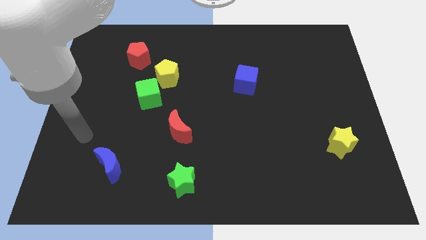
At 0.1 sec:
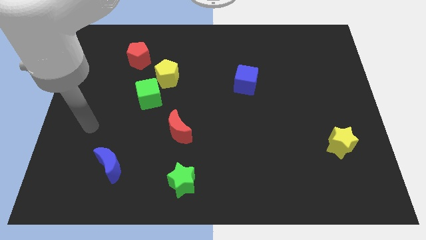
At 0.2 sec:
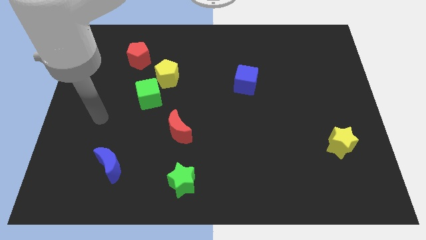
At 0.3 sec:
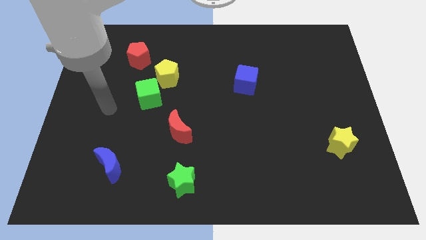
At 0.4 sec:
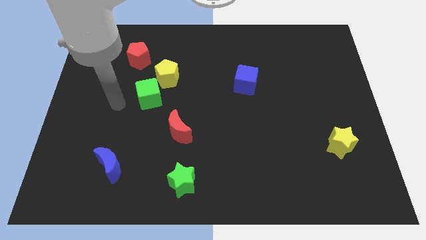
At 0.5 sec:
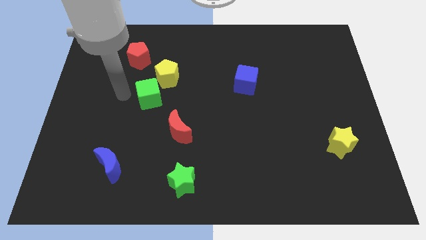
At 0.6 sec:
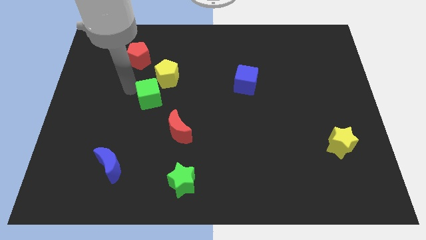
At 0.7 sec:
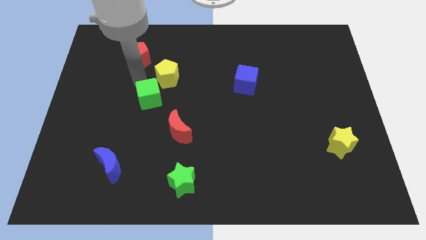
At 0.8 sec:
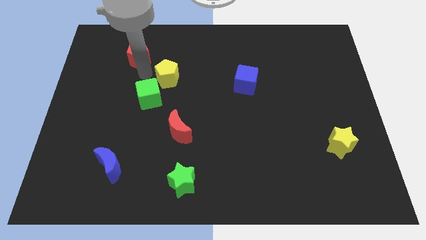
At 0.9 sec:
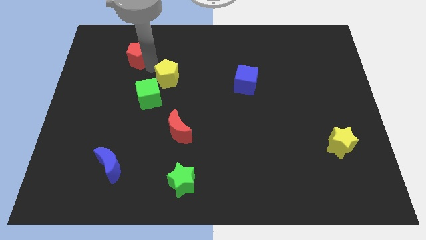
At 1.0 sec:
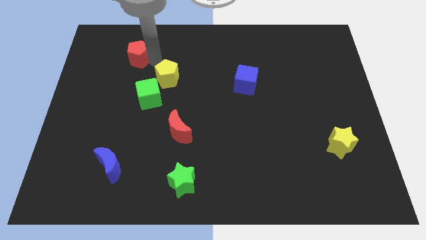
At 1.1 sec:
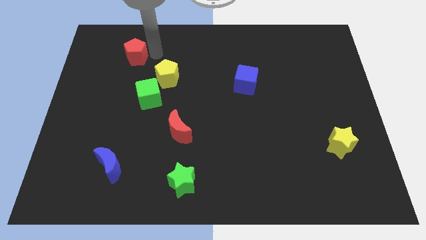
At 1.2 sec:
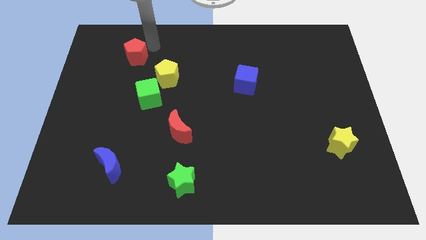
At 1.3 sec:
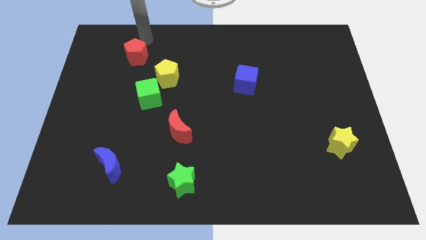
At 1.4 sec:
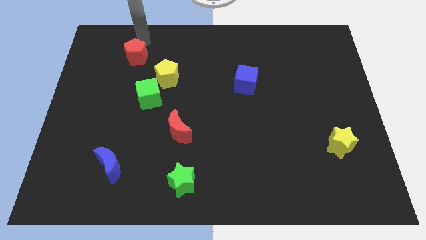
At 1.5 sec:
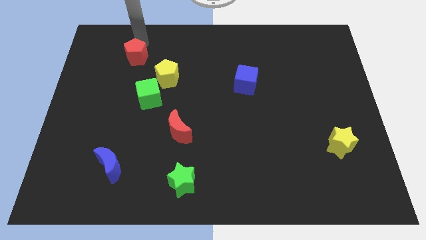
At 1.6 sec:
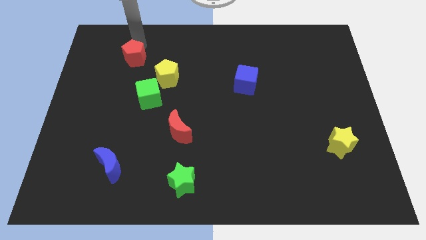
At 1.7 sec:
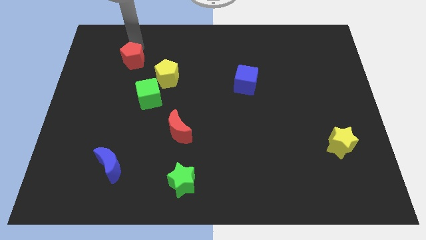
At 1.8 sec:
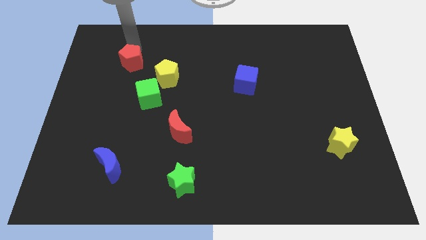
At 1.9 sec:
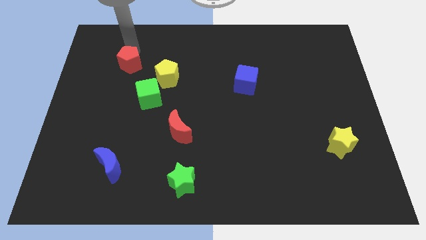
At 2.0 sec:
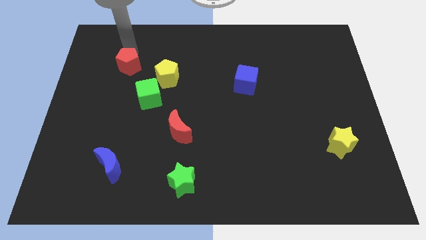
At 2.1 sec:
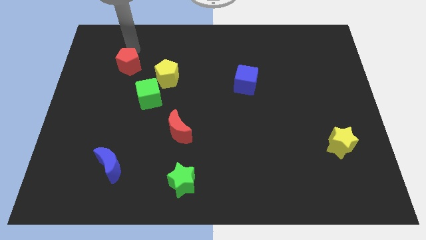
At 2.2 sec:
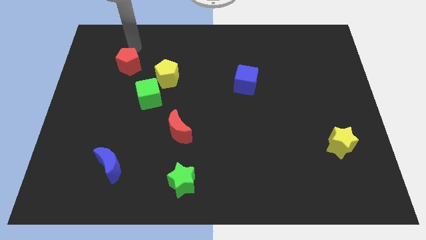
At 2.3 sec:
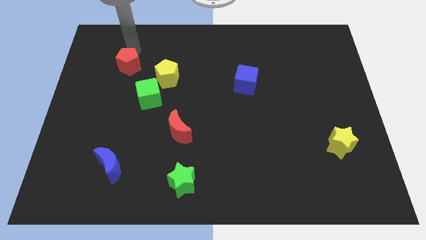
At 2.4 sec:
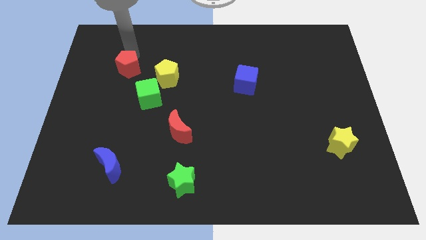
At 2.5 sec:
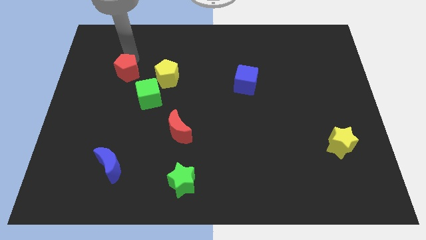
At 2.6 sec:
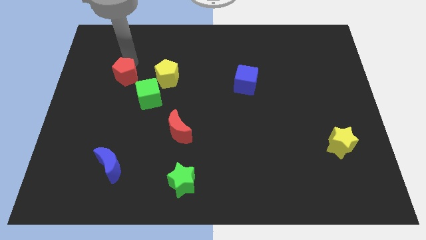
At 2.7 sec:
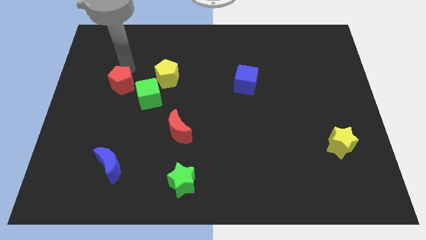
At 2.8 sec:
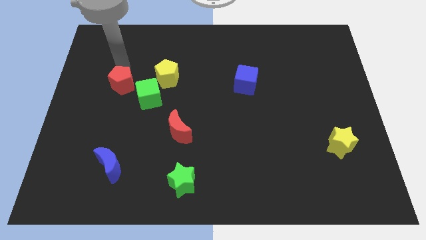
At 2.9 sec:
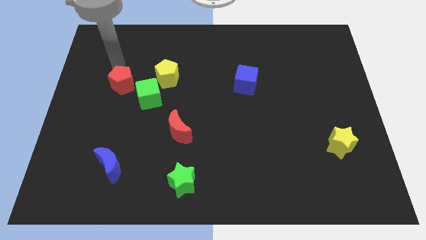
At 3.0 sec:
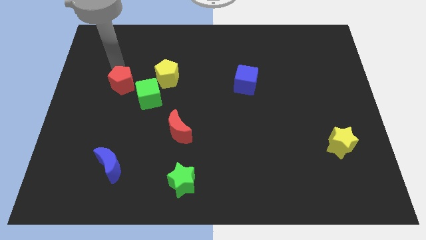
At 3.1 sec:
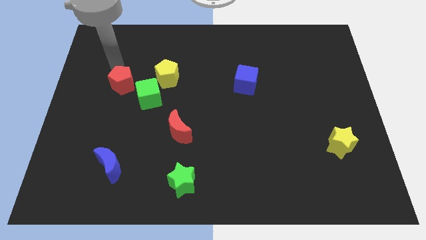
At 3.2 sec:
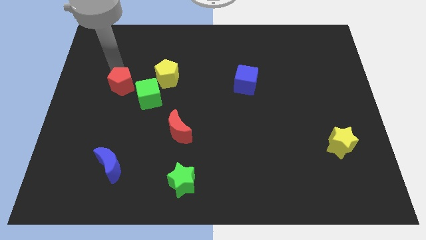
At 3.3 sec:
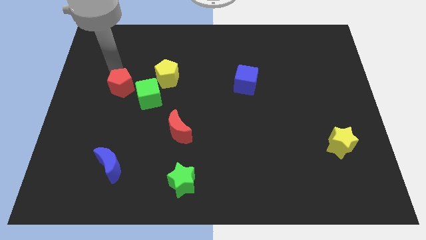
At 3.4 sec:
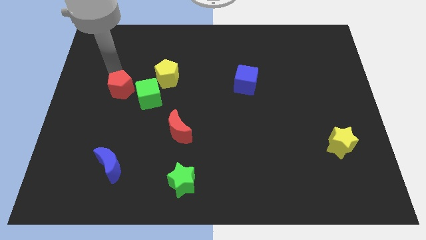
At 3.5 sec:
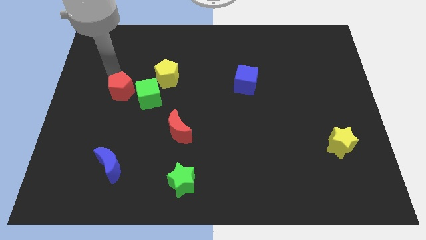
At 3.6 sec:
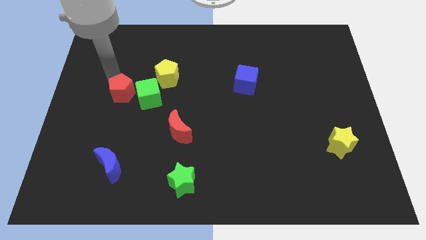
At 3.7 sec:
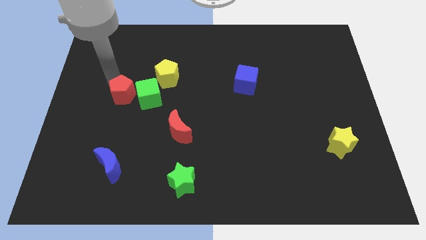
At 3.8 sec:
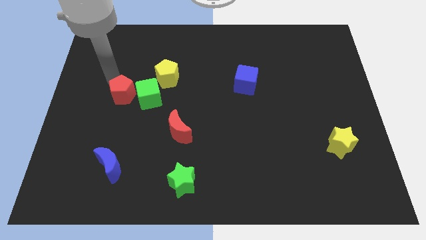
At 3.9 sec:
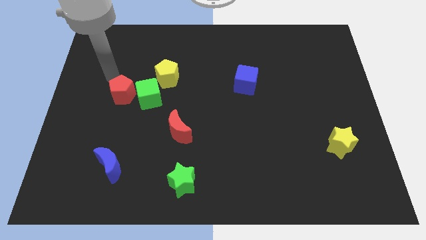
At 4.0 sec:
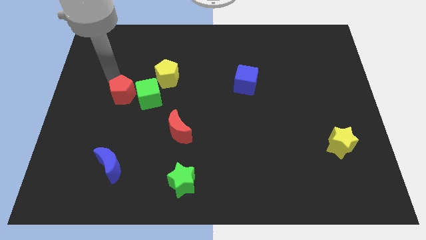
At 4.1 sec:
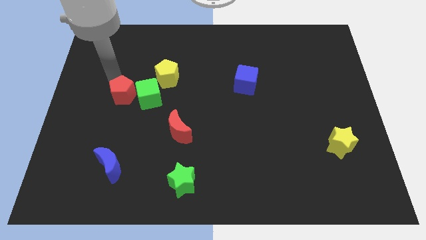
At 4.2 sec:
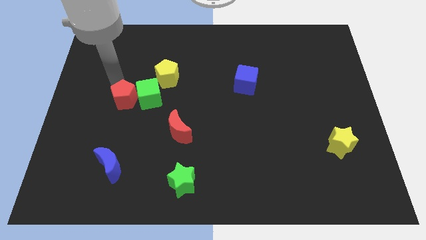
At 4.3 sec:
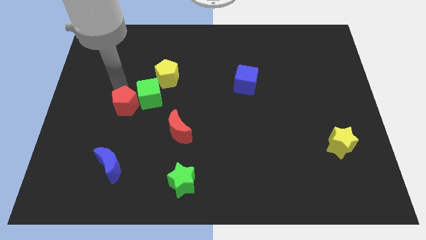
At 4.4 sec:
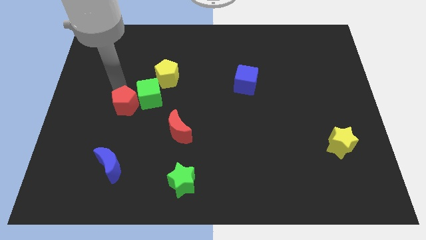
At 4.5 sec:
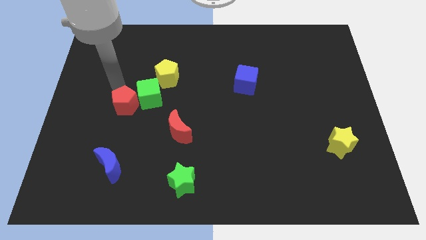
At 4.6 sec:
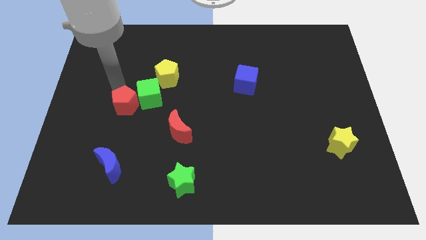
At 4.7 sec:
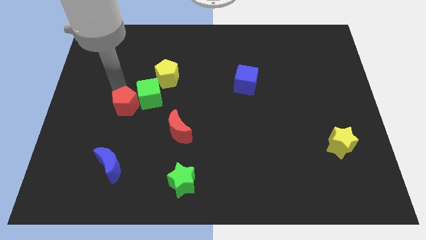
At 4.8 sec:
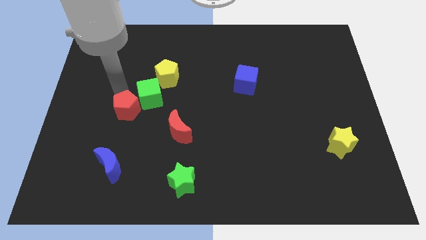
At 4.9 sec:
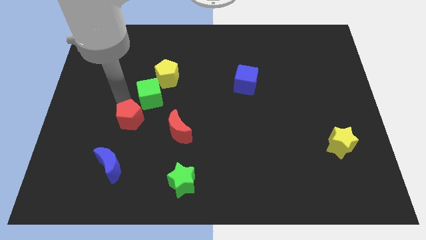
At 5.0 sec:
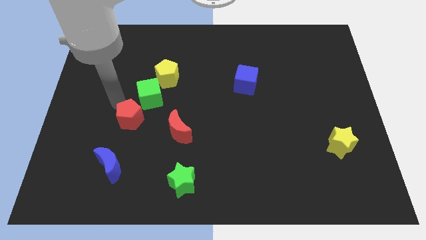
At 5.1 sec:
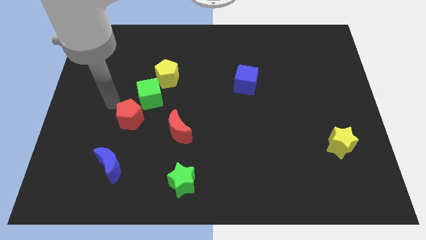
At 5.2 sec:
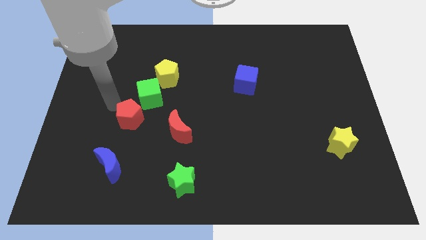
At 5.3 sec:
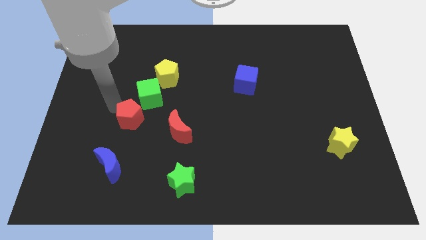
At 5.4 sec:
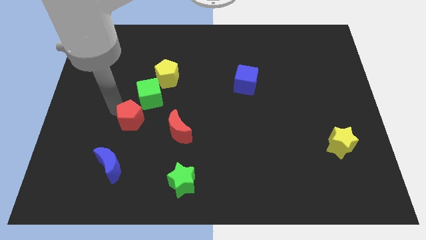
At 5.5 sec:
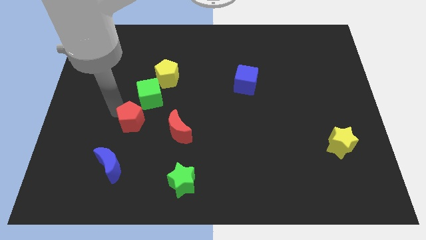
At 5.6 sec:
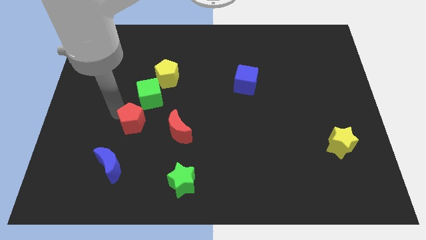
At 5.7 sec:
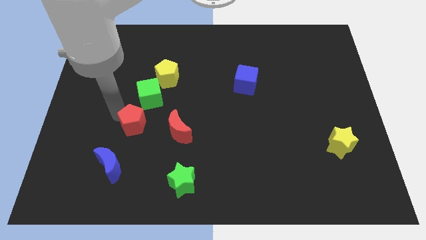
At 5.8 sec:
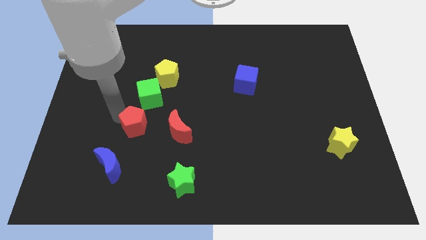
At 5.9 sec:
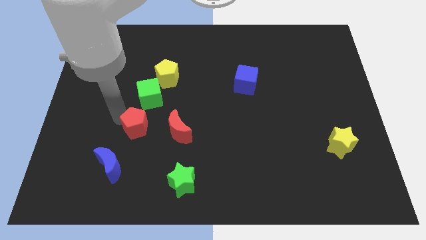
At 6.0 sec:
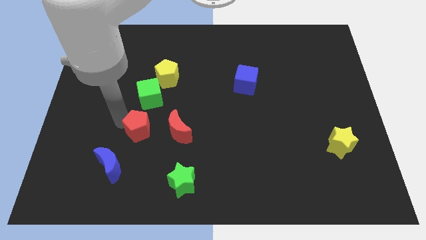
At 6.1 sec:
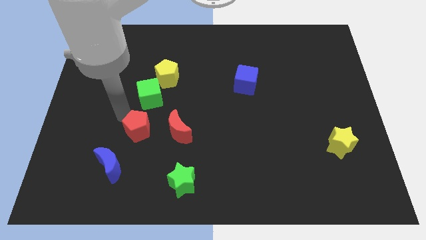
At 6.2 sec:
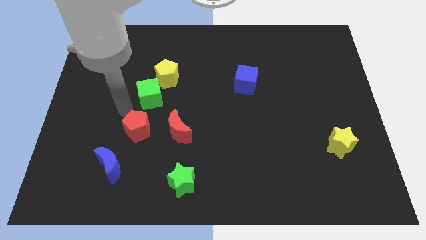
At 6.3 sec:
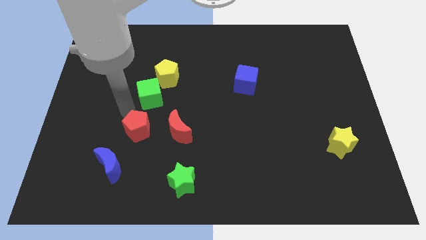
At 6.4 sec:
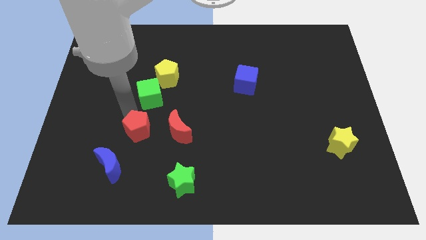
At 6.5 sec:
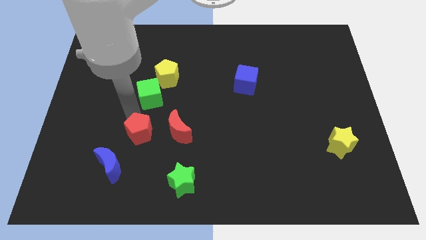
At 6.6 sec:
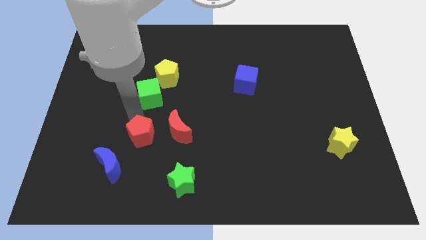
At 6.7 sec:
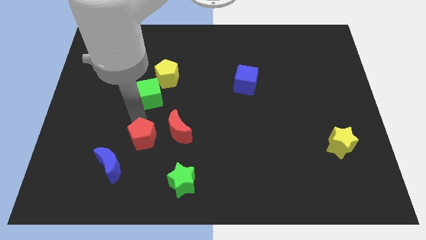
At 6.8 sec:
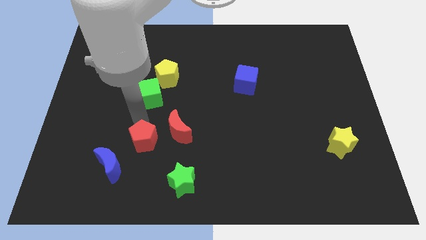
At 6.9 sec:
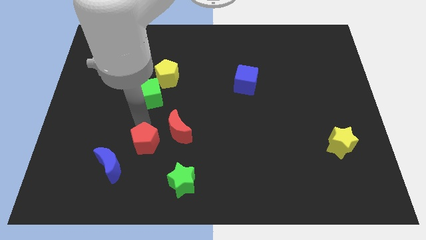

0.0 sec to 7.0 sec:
put the red pentagon to the top left of the green star
